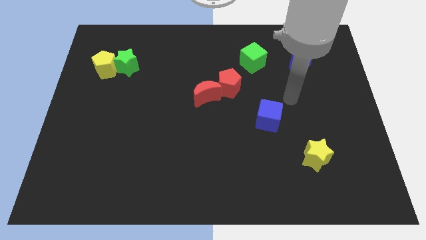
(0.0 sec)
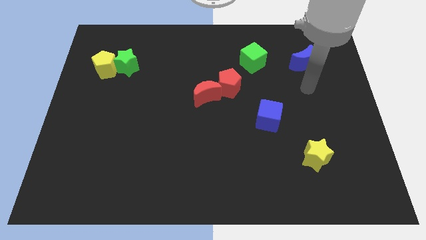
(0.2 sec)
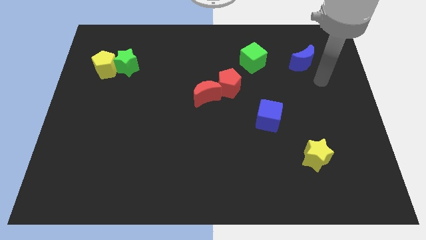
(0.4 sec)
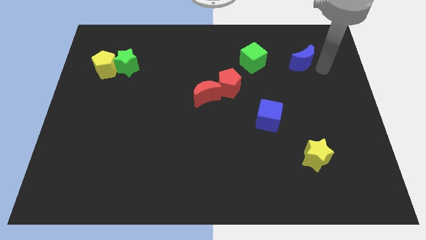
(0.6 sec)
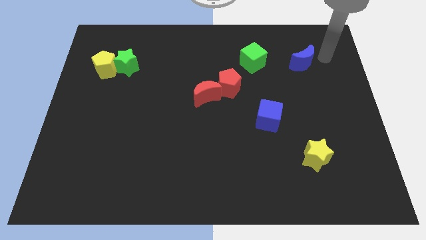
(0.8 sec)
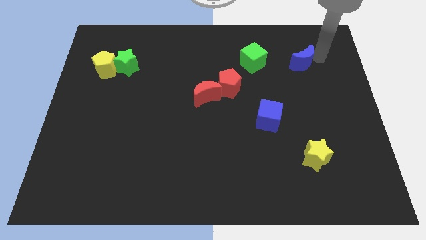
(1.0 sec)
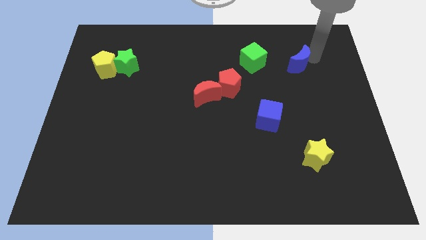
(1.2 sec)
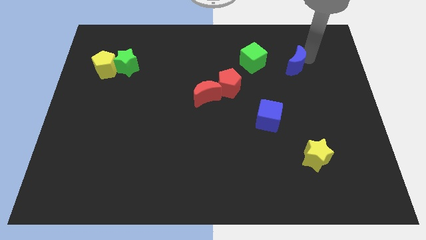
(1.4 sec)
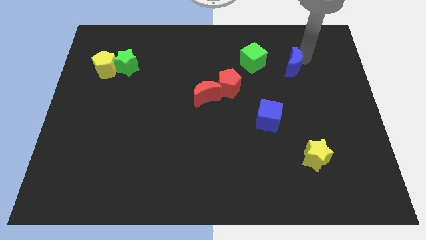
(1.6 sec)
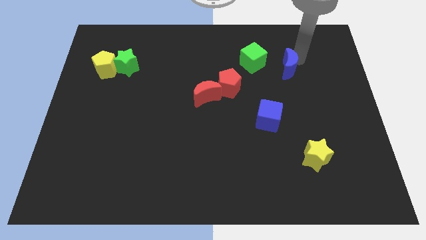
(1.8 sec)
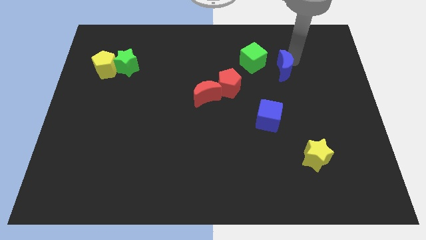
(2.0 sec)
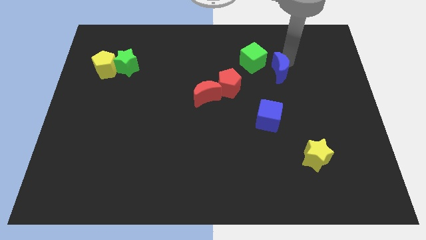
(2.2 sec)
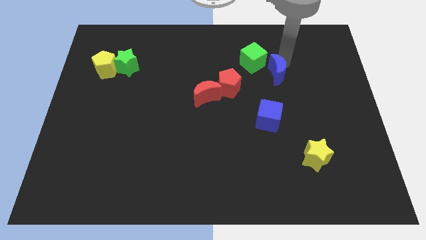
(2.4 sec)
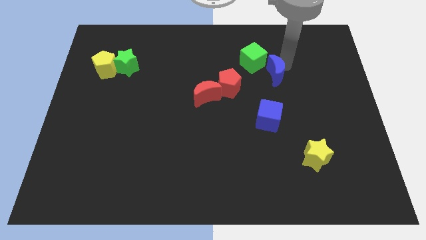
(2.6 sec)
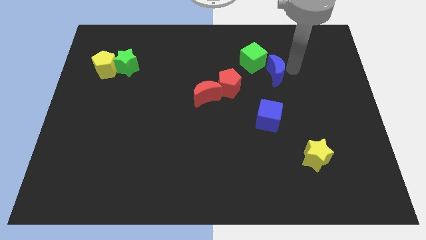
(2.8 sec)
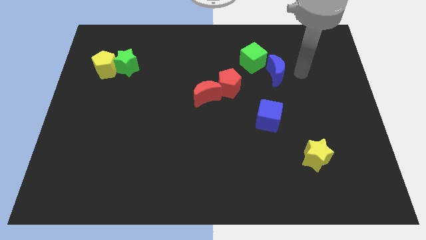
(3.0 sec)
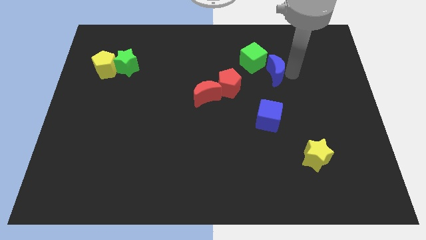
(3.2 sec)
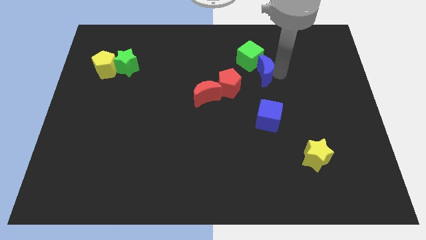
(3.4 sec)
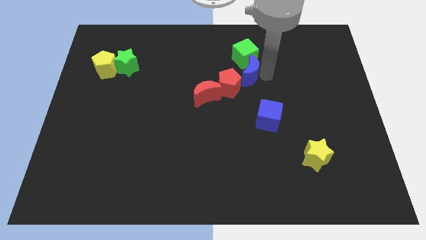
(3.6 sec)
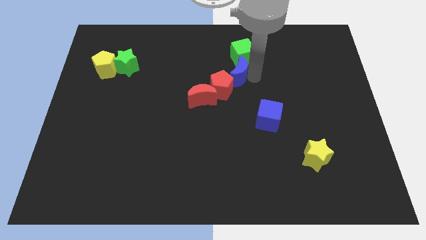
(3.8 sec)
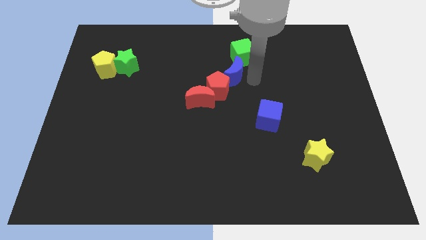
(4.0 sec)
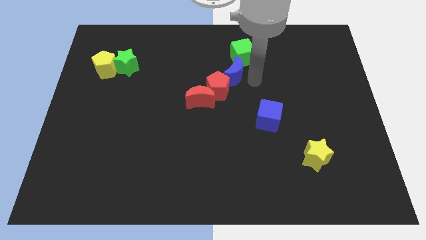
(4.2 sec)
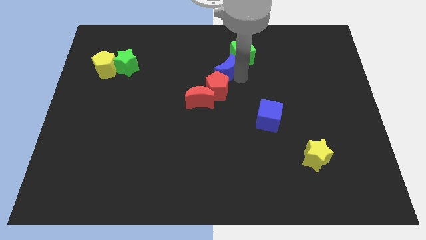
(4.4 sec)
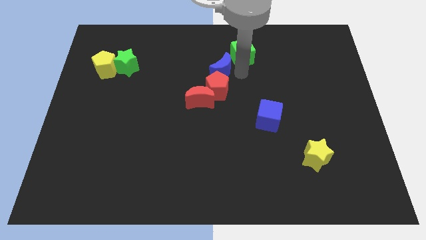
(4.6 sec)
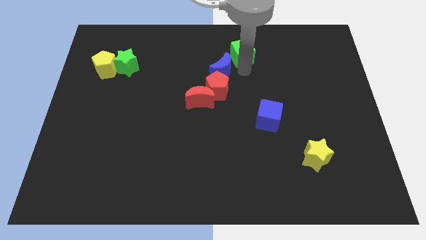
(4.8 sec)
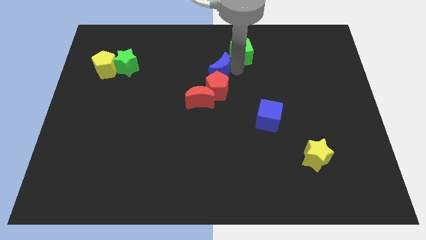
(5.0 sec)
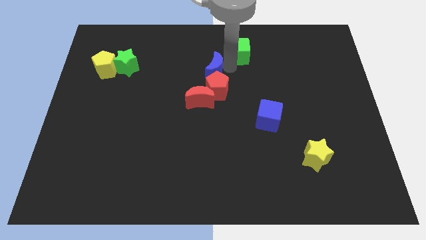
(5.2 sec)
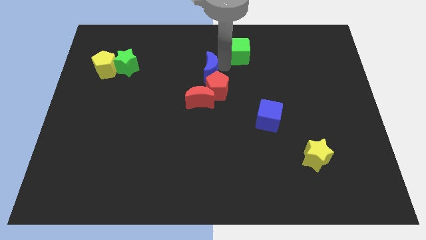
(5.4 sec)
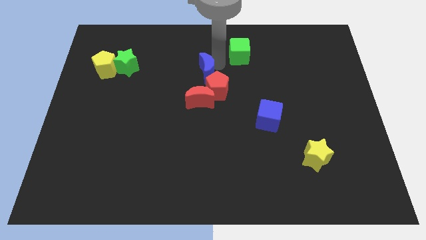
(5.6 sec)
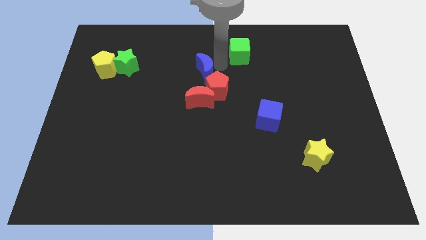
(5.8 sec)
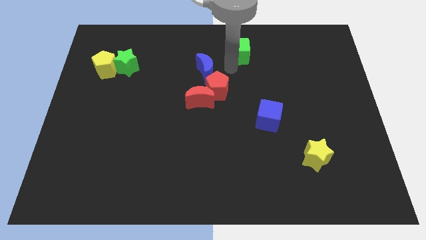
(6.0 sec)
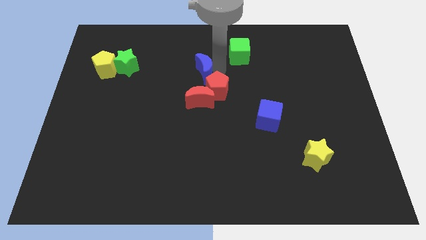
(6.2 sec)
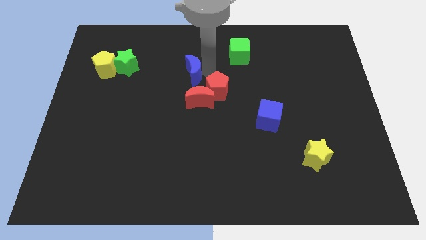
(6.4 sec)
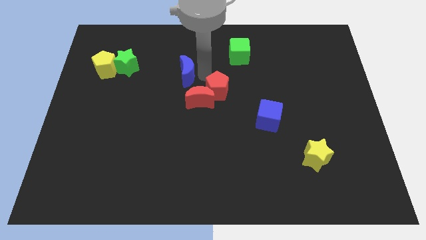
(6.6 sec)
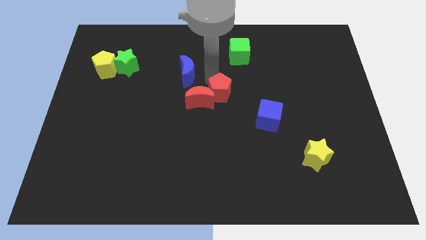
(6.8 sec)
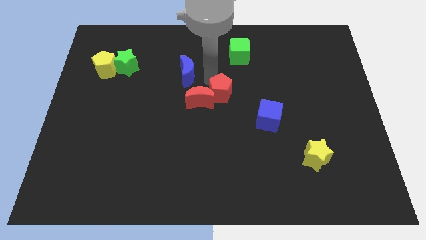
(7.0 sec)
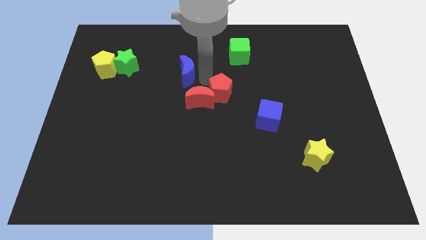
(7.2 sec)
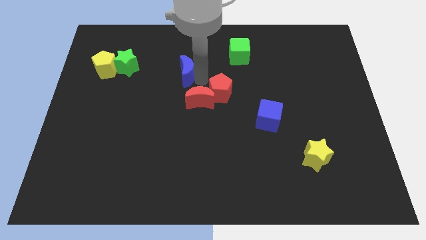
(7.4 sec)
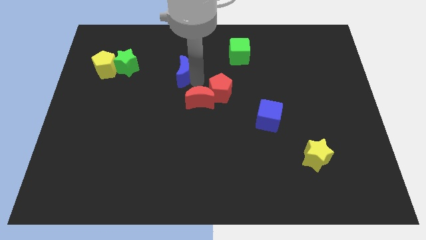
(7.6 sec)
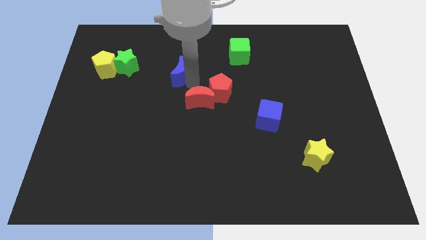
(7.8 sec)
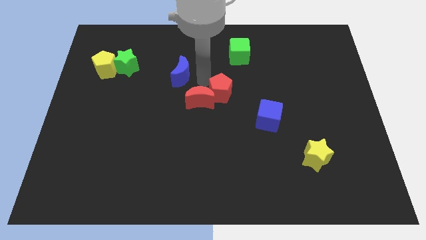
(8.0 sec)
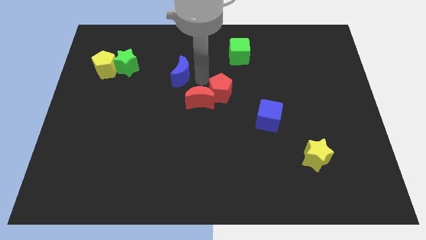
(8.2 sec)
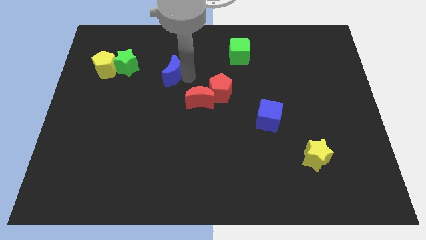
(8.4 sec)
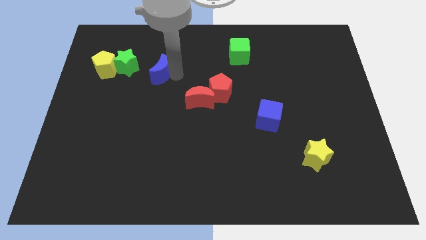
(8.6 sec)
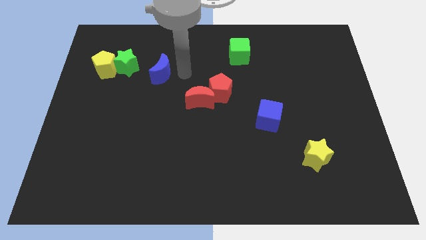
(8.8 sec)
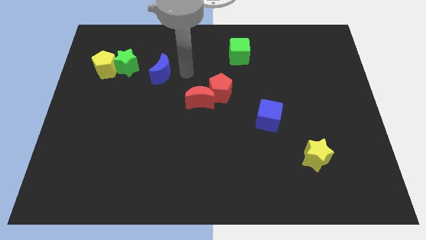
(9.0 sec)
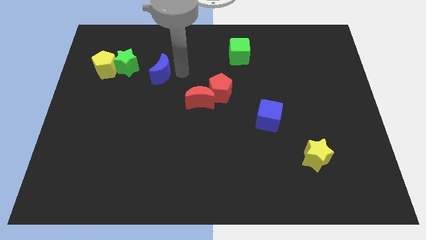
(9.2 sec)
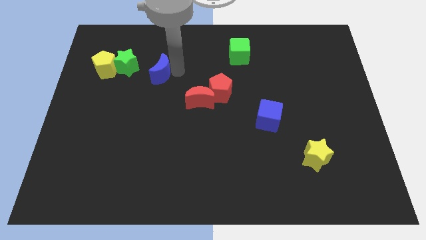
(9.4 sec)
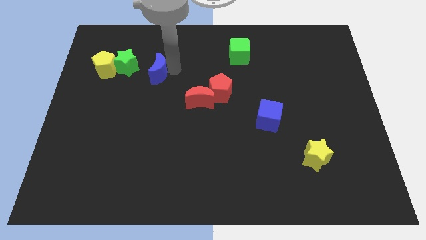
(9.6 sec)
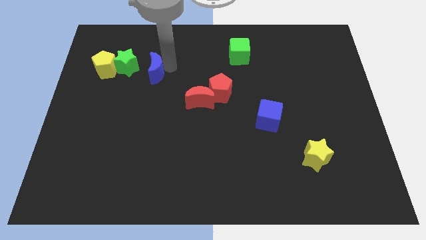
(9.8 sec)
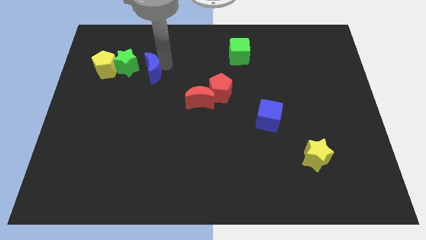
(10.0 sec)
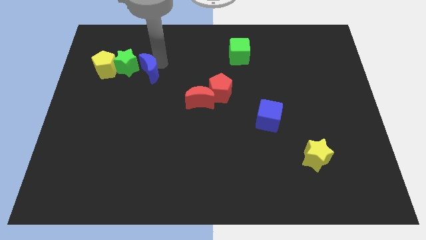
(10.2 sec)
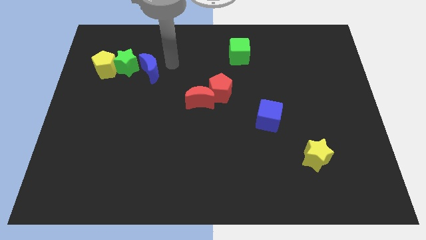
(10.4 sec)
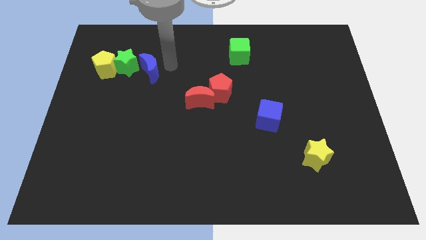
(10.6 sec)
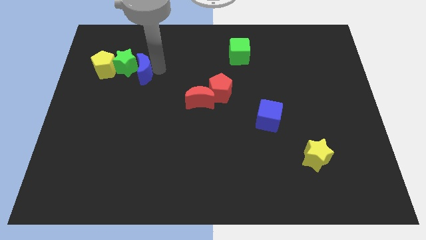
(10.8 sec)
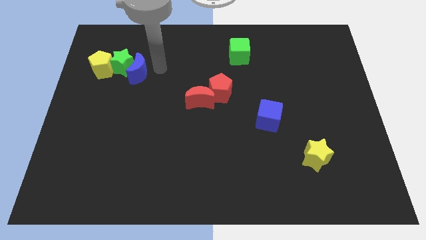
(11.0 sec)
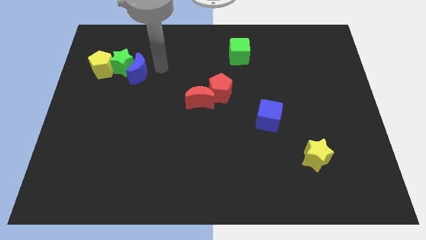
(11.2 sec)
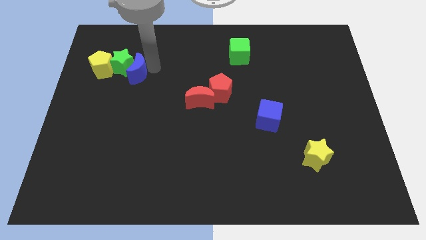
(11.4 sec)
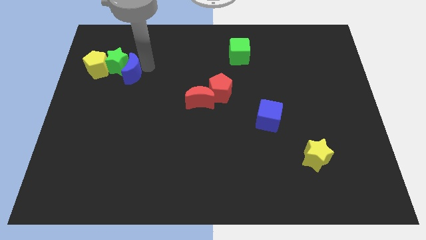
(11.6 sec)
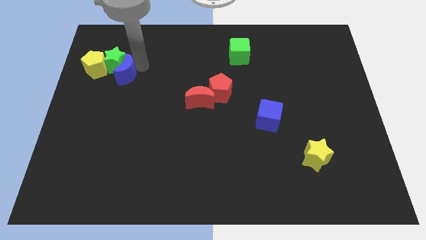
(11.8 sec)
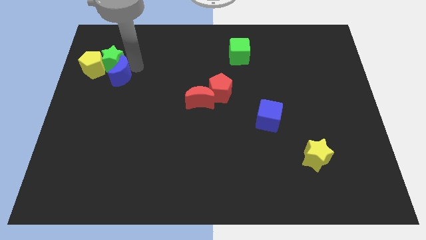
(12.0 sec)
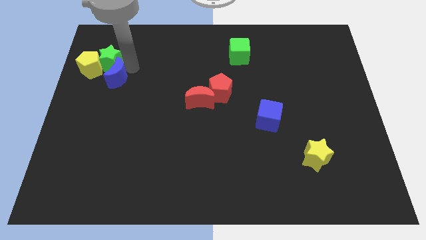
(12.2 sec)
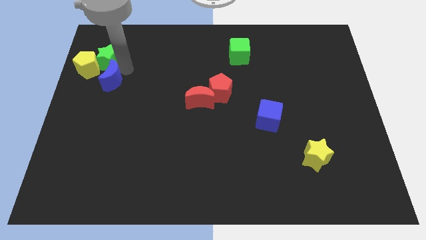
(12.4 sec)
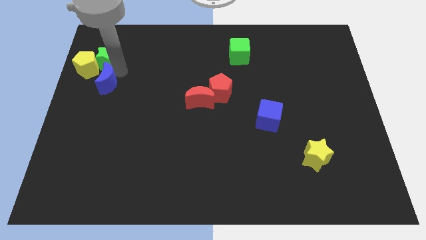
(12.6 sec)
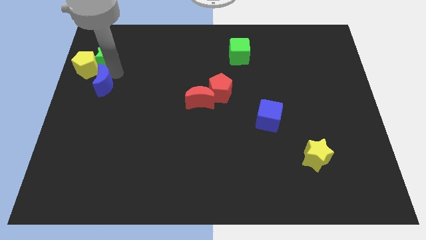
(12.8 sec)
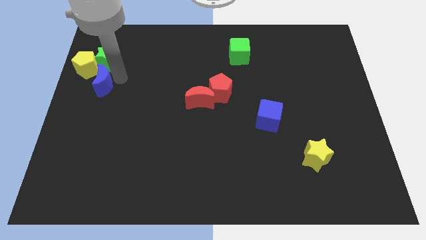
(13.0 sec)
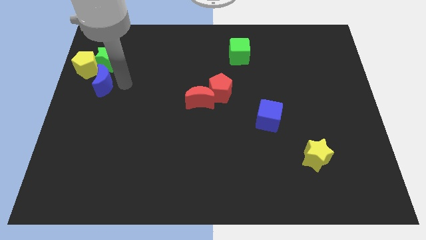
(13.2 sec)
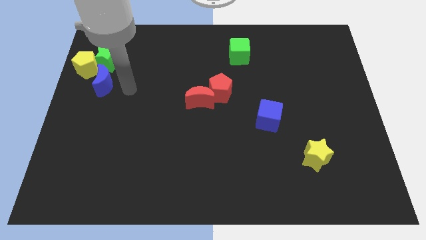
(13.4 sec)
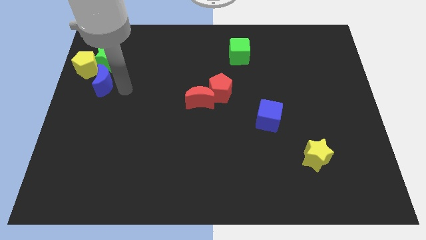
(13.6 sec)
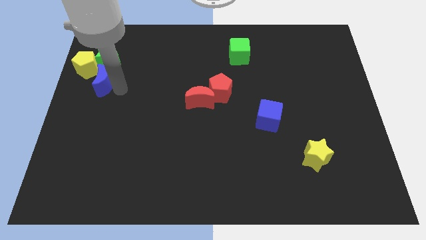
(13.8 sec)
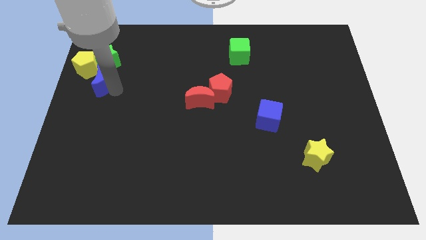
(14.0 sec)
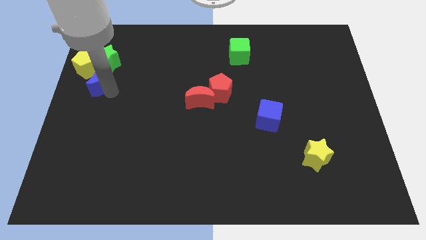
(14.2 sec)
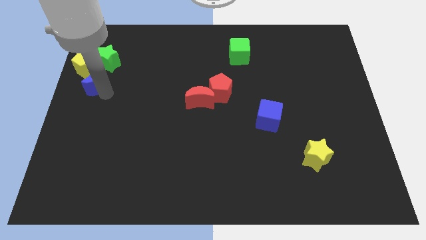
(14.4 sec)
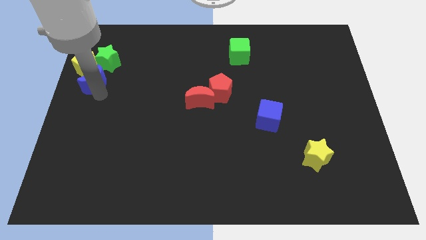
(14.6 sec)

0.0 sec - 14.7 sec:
slide the blue moon next to the yellow pentagon
